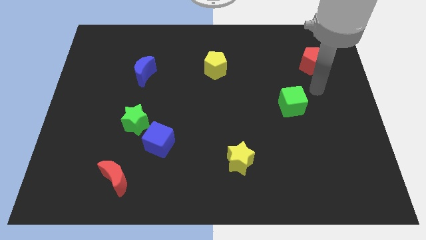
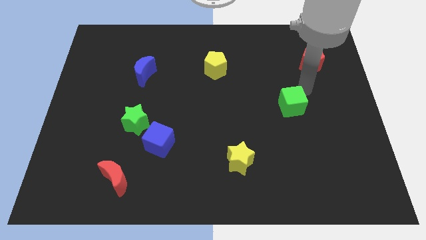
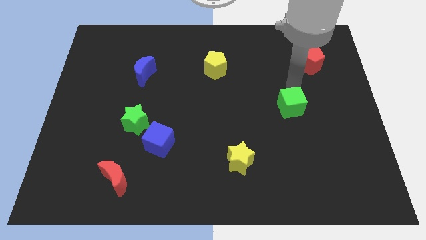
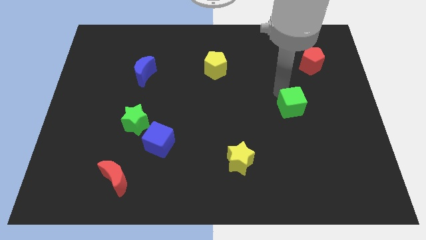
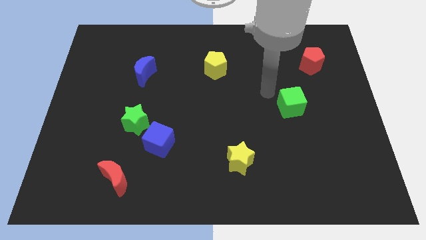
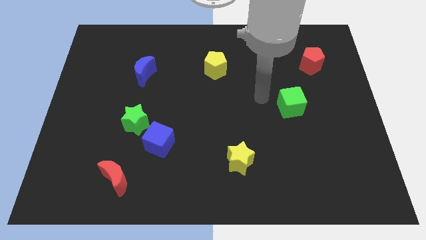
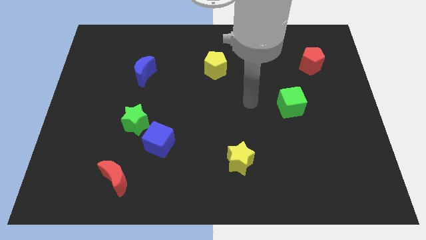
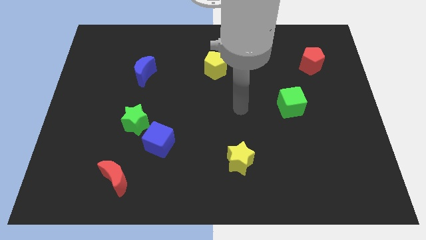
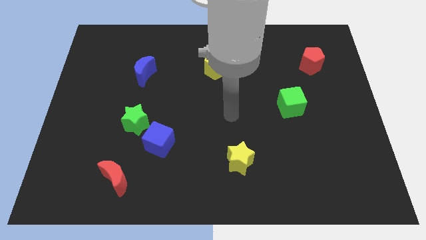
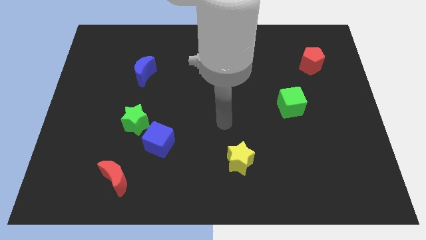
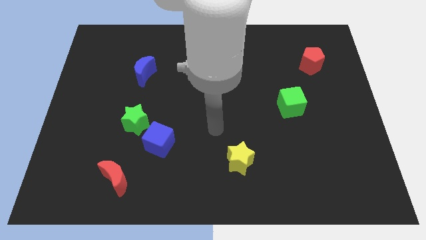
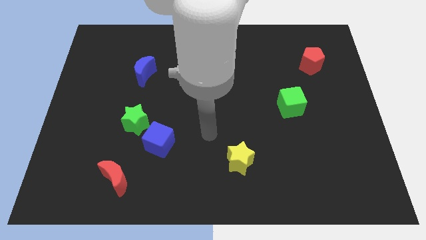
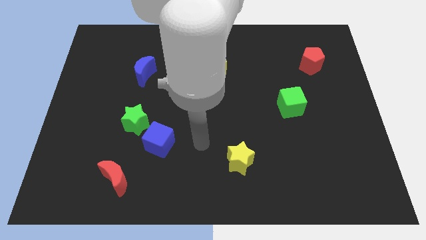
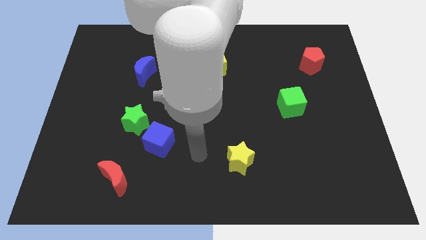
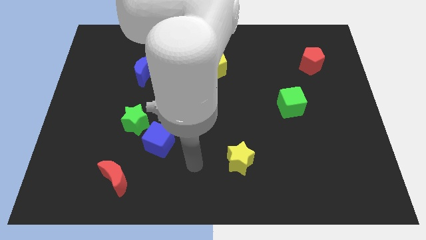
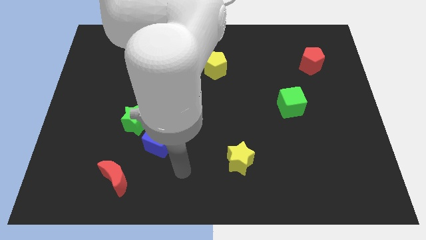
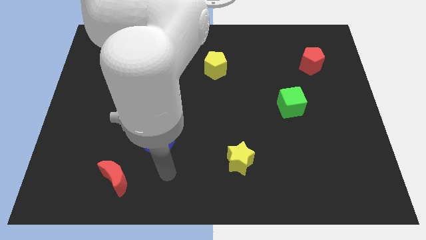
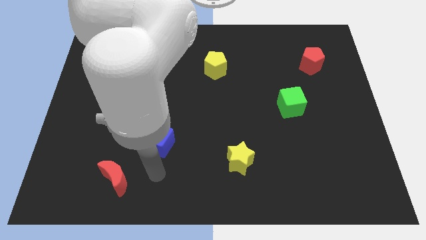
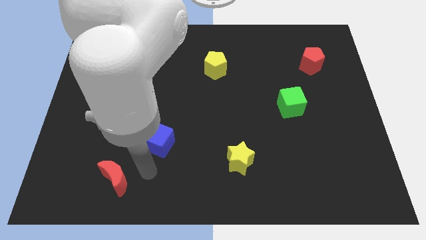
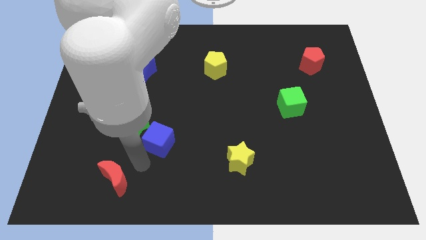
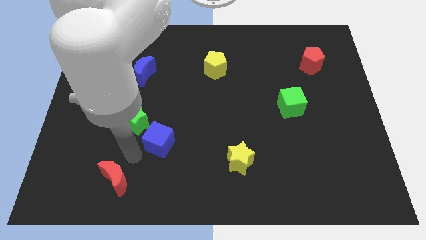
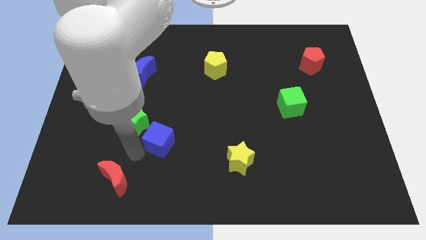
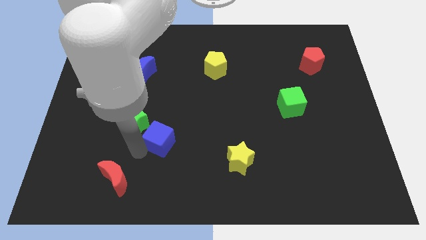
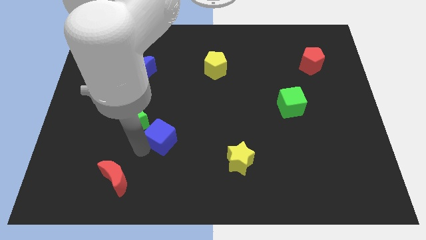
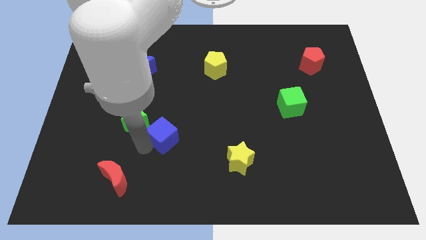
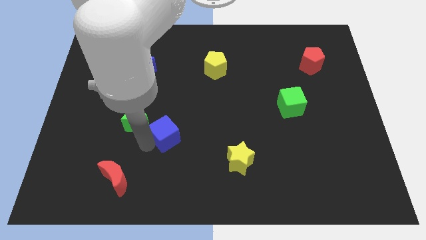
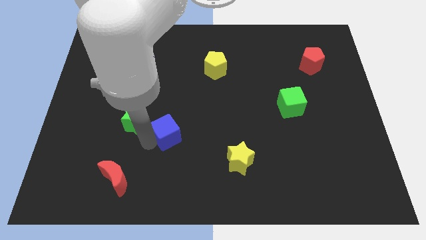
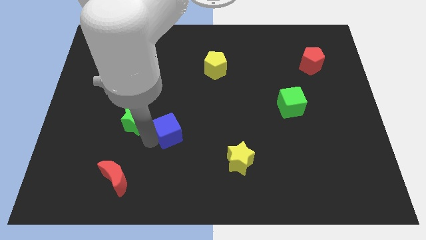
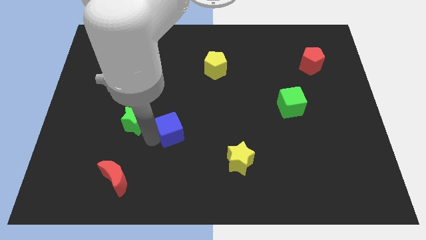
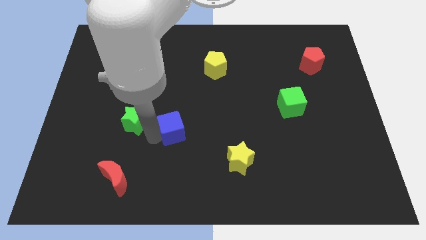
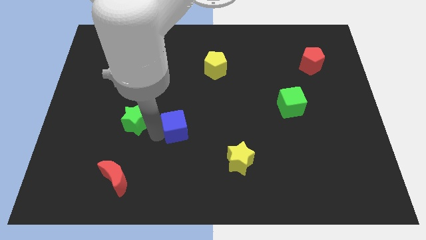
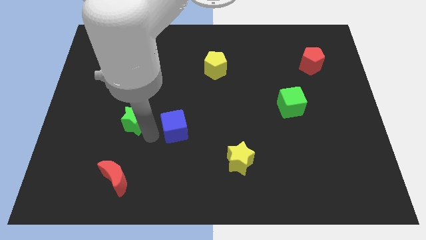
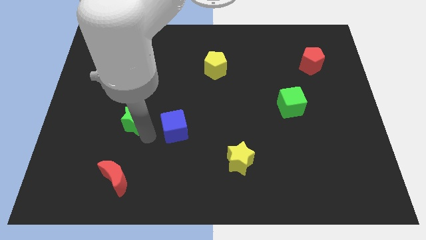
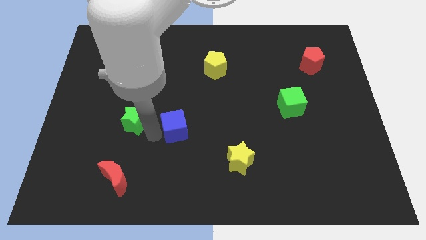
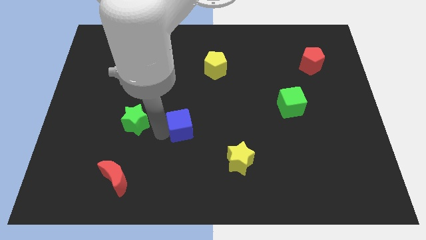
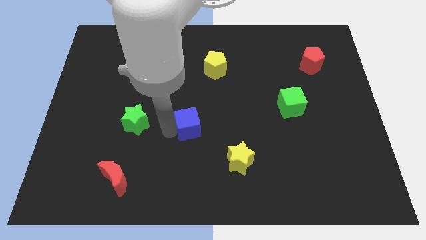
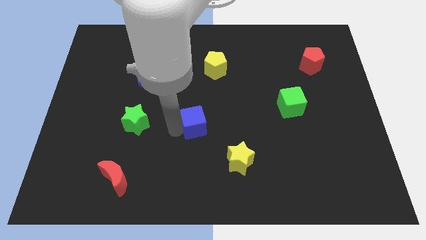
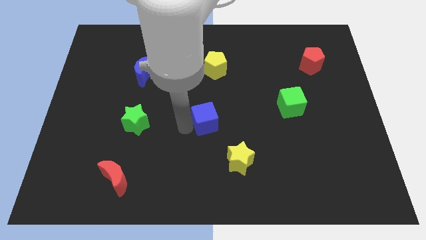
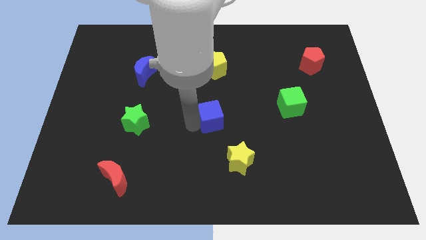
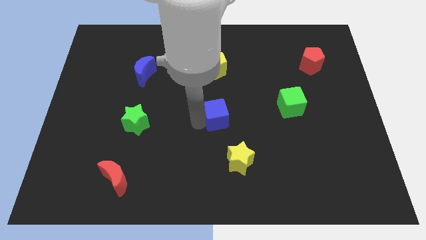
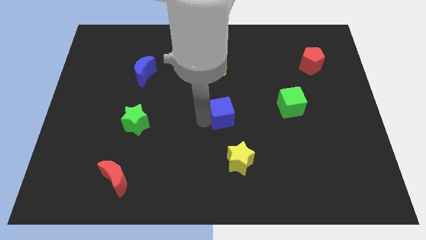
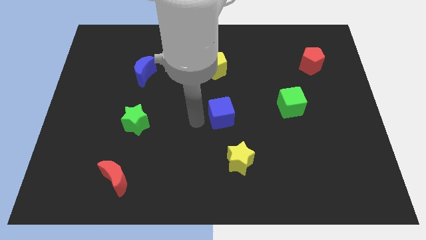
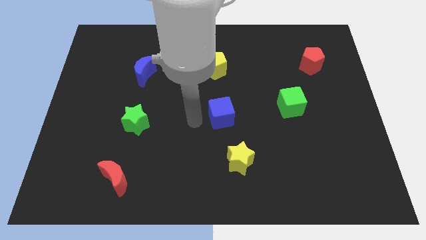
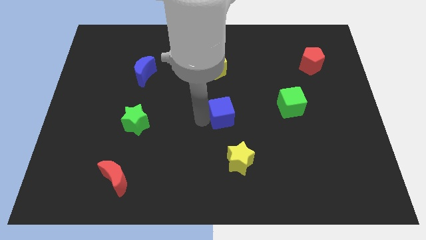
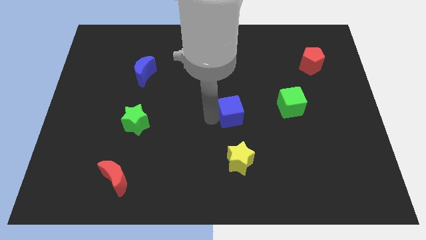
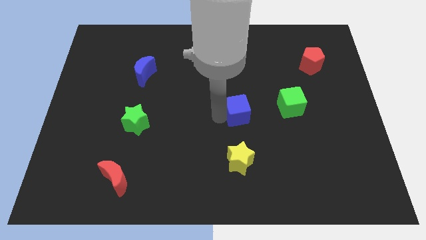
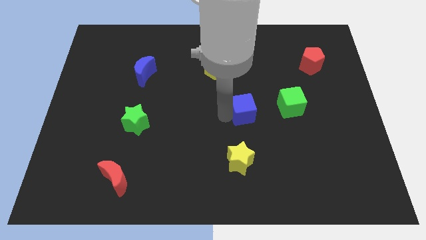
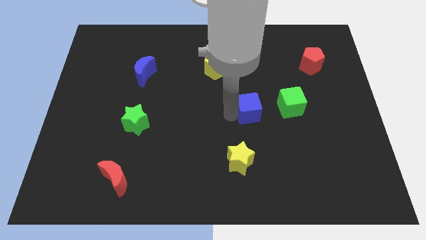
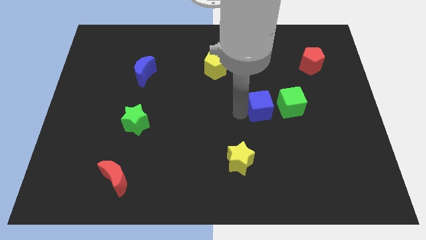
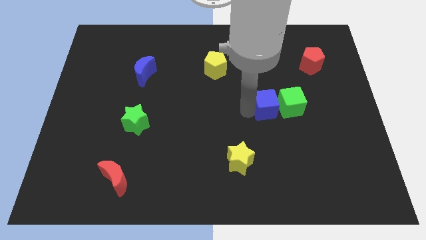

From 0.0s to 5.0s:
put the blue cube close to the green cube

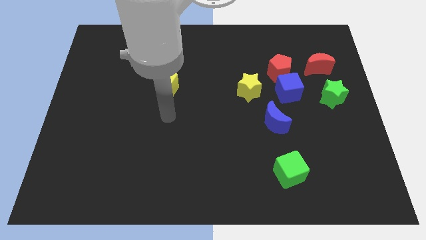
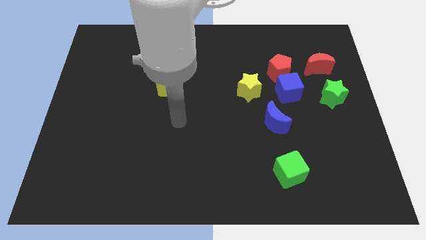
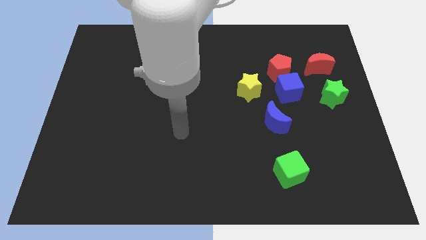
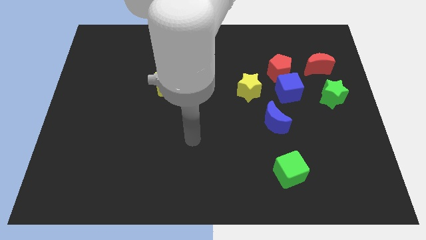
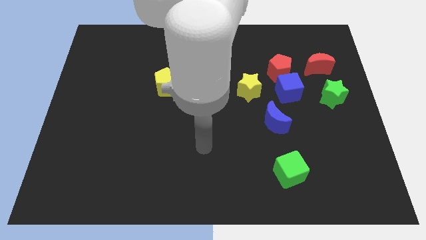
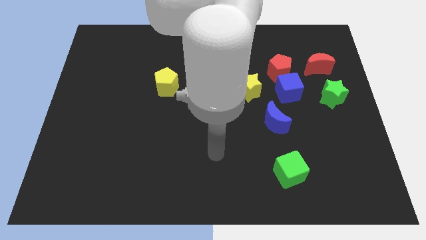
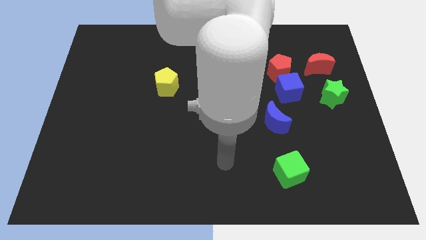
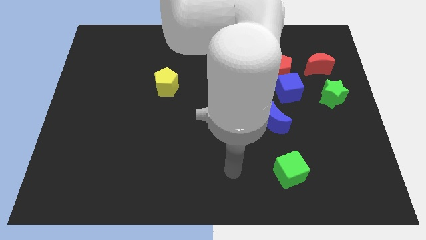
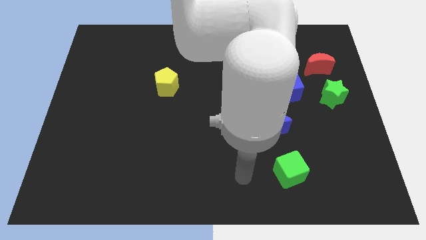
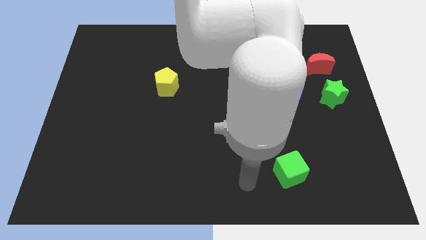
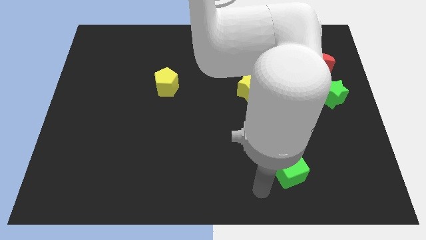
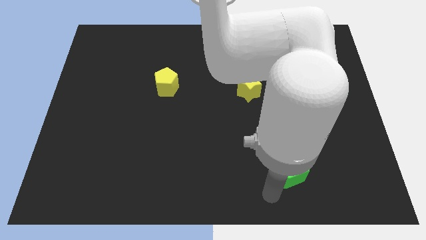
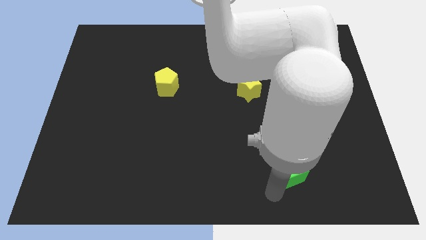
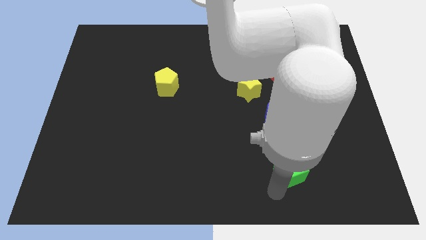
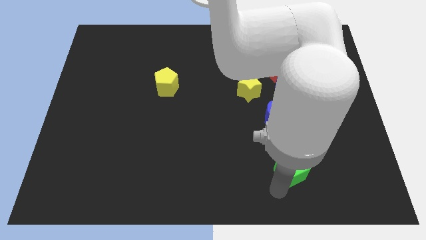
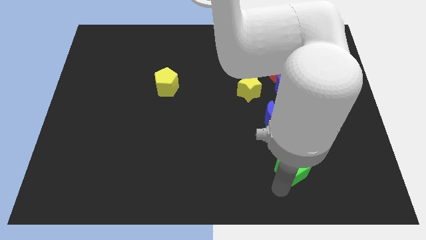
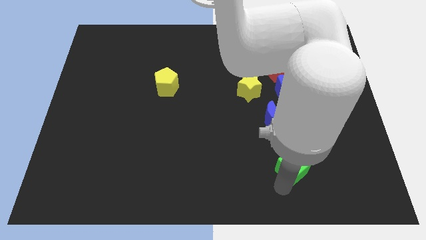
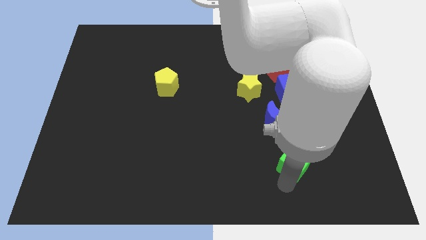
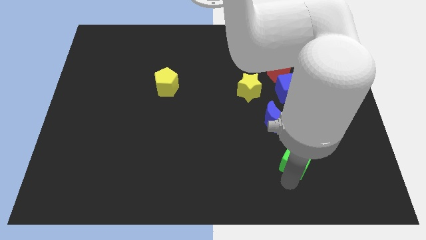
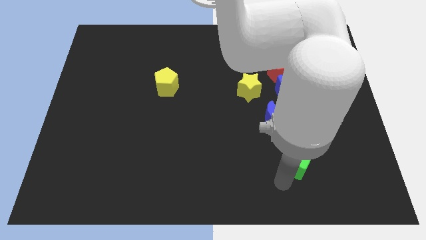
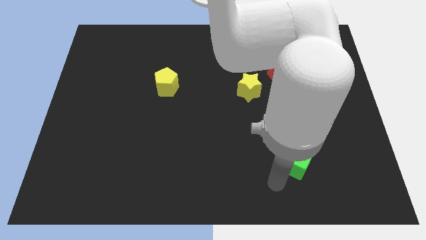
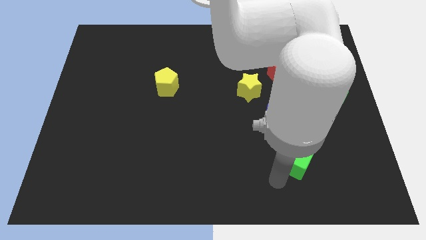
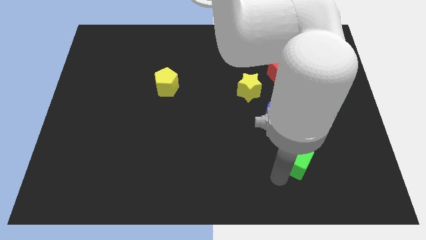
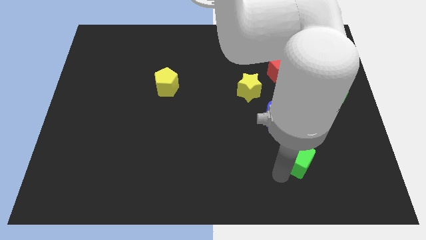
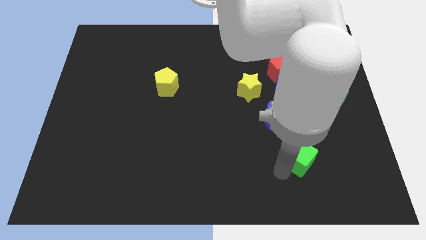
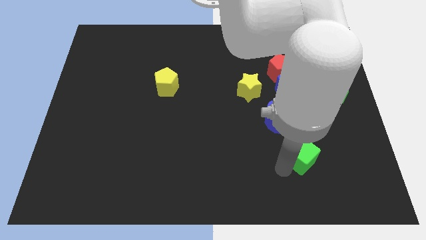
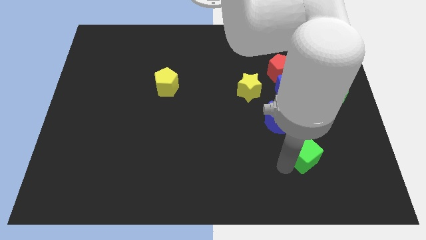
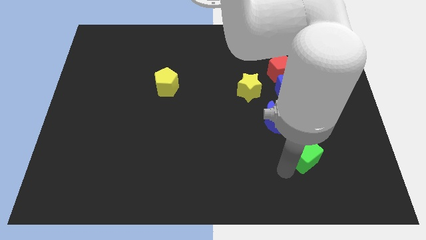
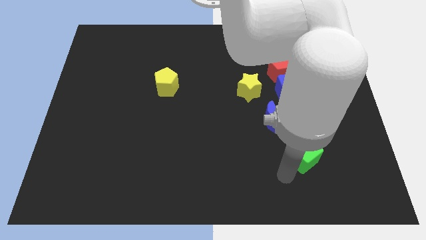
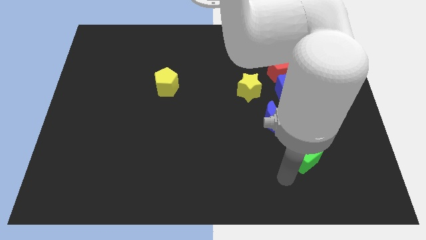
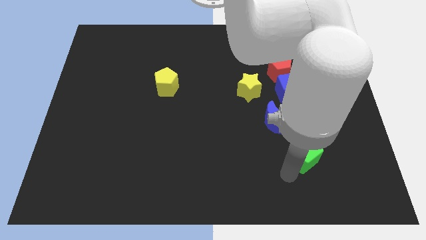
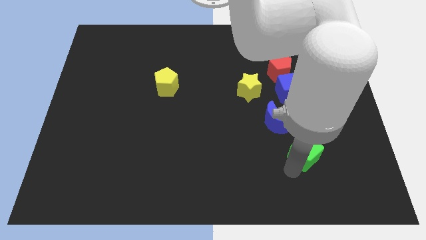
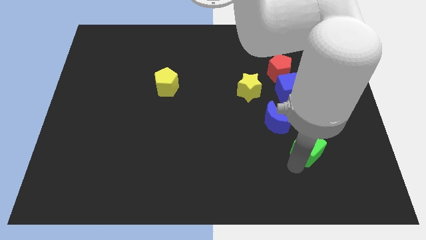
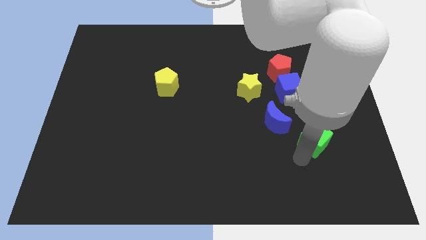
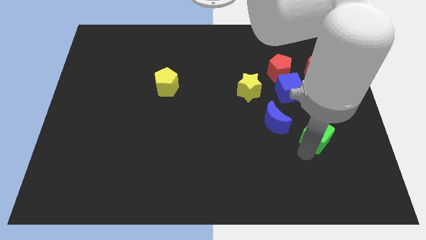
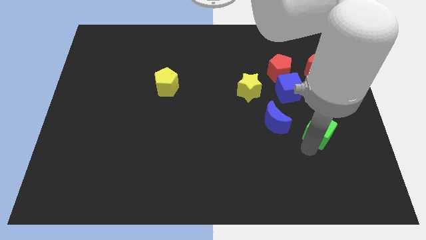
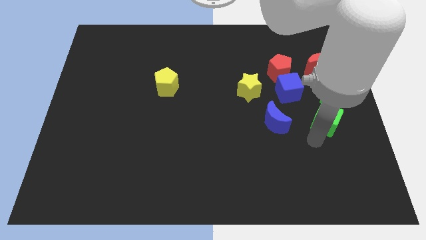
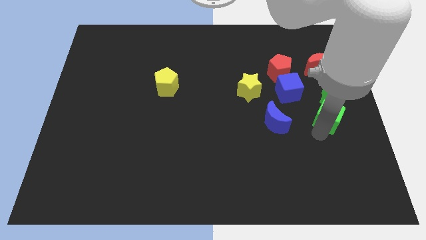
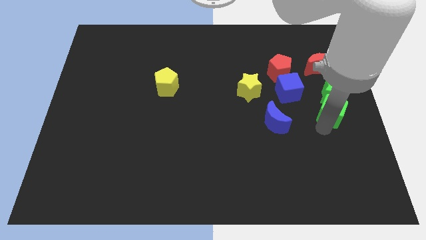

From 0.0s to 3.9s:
put the green cube close to the green star
